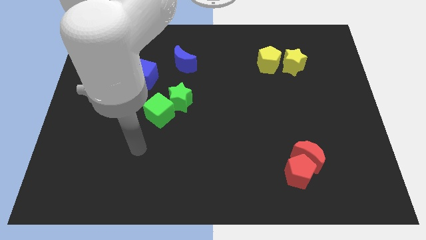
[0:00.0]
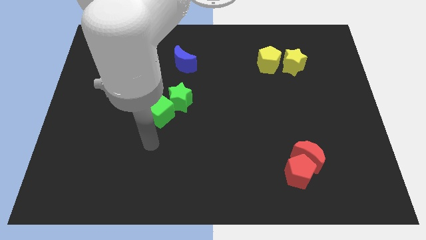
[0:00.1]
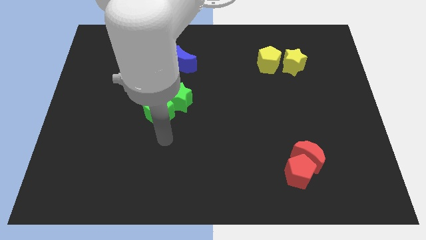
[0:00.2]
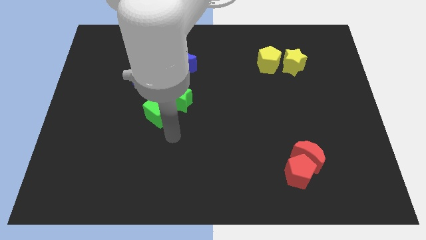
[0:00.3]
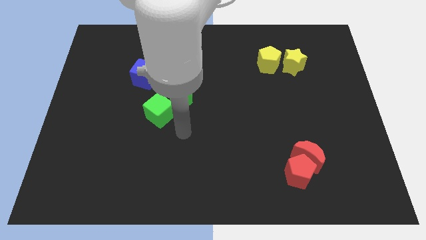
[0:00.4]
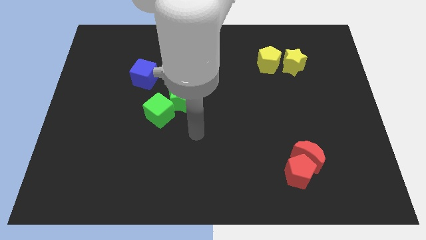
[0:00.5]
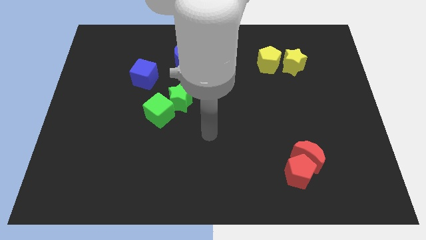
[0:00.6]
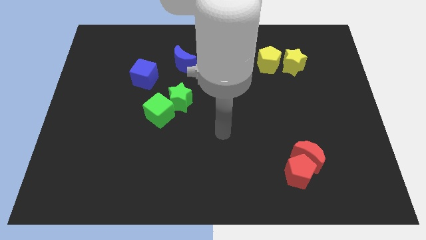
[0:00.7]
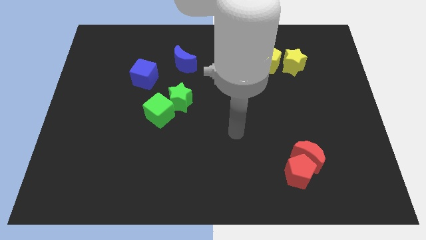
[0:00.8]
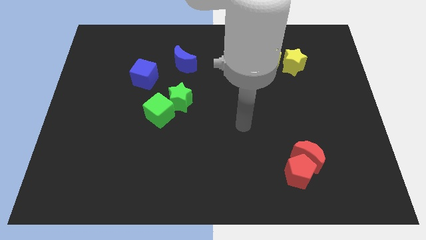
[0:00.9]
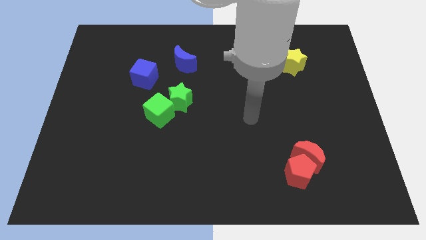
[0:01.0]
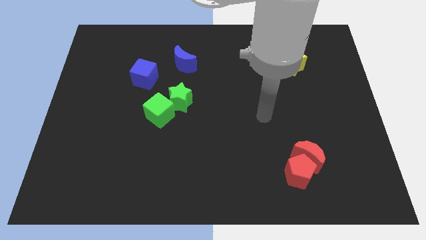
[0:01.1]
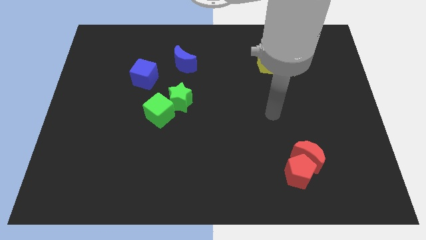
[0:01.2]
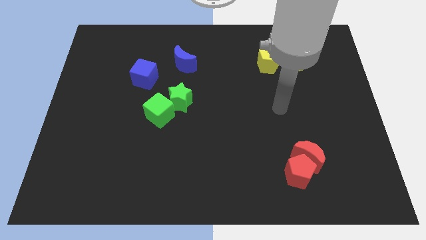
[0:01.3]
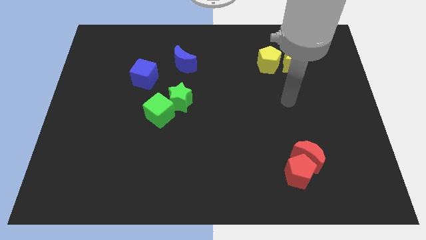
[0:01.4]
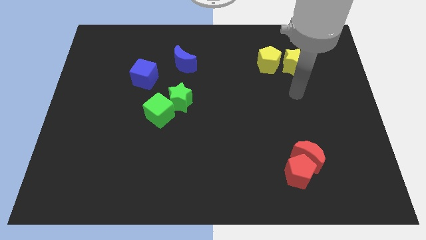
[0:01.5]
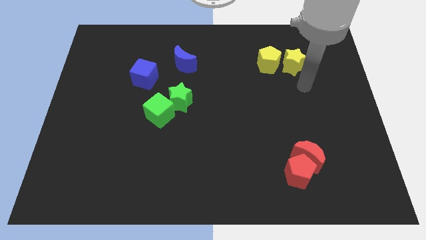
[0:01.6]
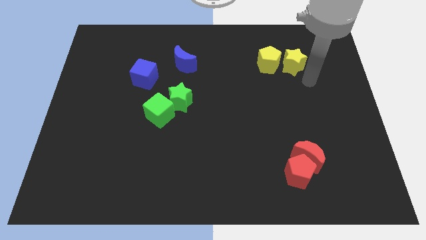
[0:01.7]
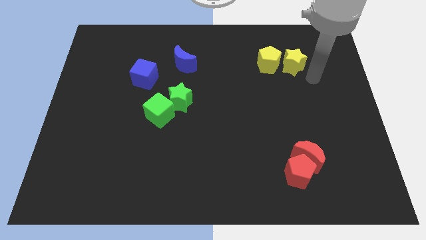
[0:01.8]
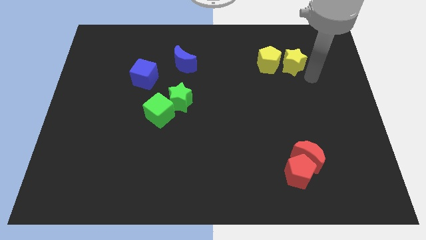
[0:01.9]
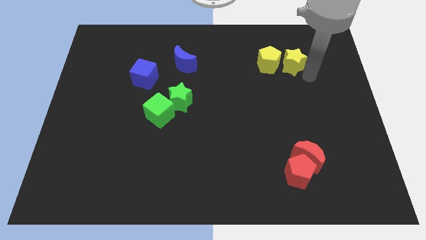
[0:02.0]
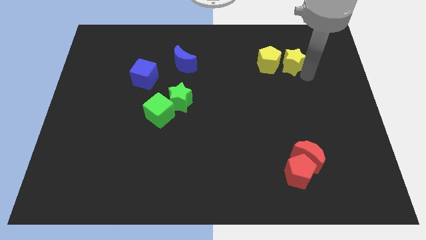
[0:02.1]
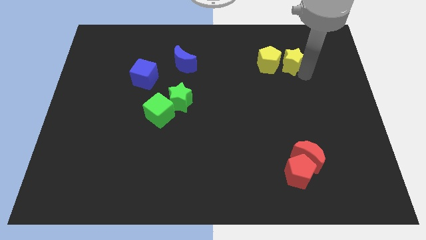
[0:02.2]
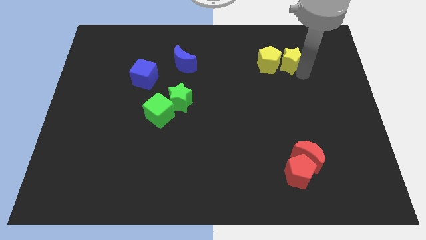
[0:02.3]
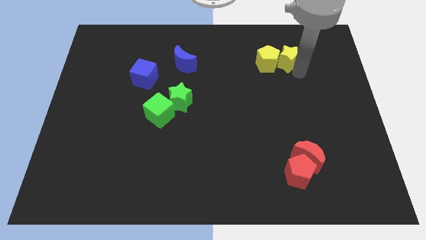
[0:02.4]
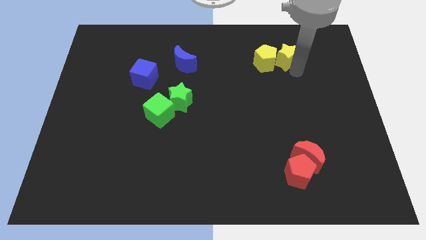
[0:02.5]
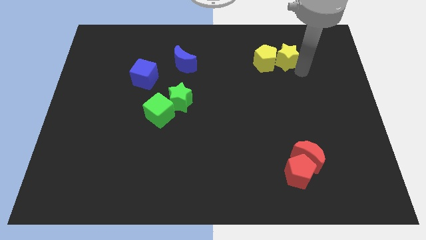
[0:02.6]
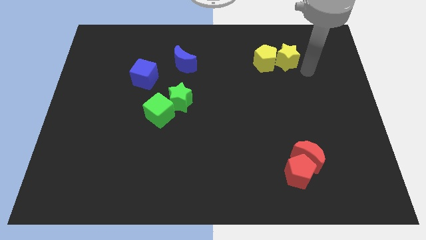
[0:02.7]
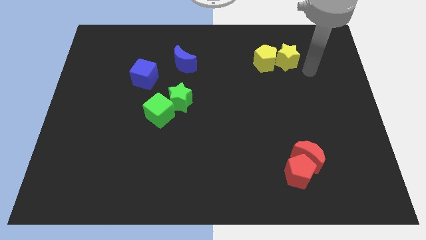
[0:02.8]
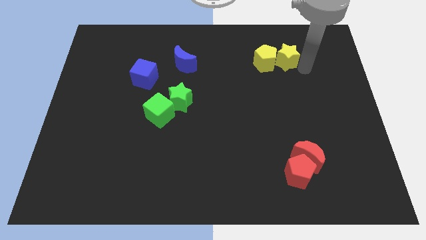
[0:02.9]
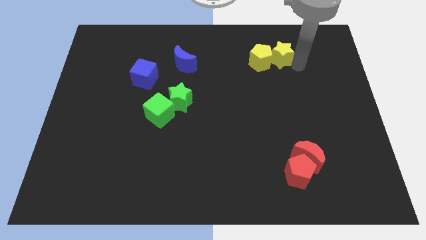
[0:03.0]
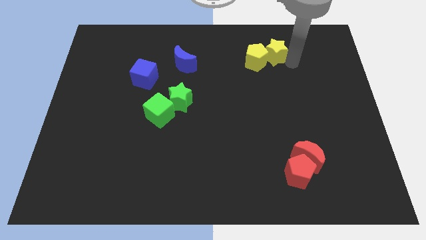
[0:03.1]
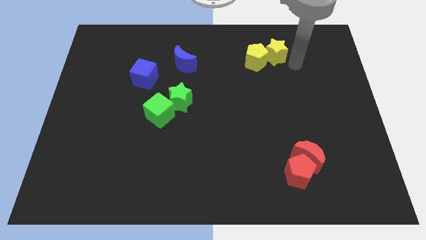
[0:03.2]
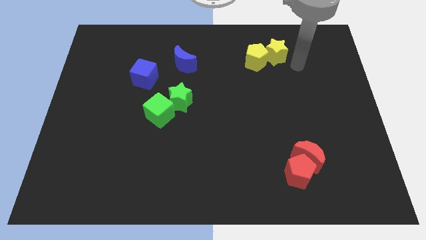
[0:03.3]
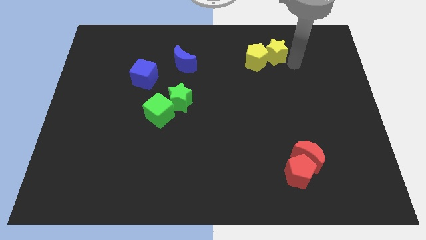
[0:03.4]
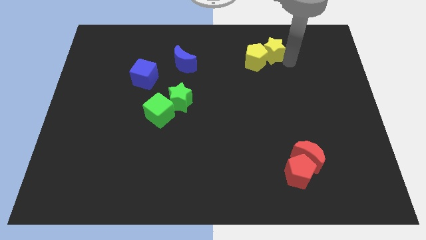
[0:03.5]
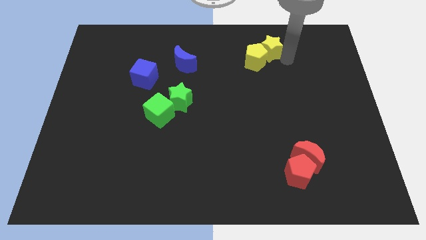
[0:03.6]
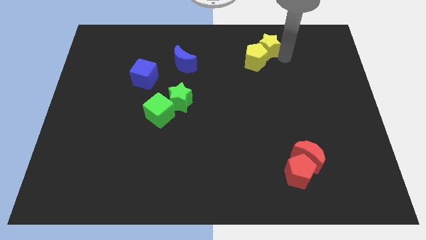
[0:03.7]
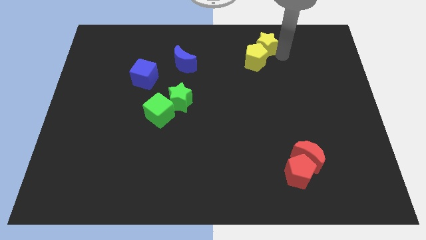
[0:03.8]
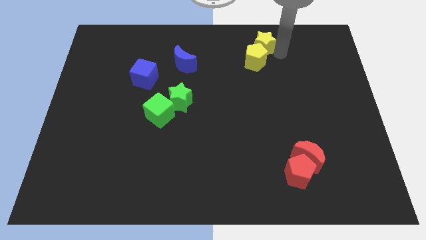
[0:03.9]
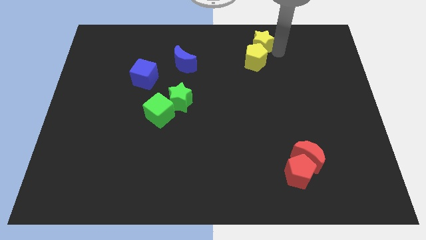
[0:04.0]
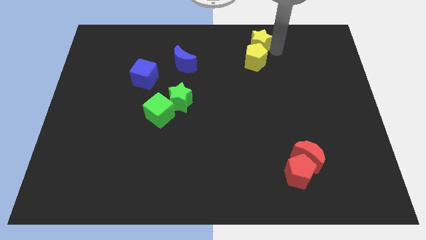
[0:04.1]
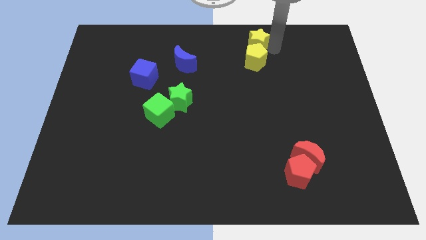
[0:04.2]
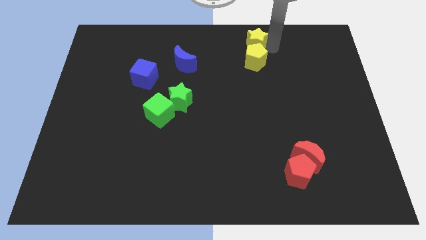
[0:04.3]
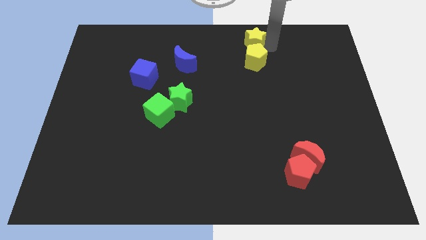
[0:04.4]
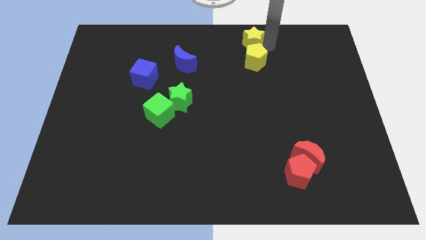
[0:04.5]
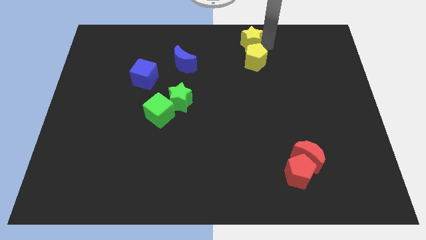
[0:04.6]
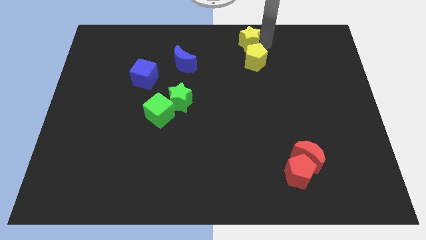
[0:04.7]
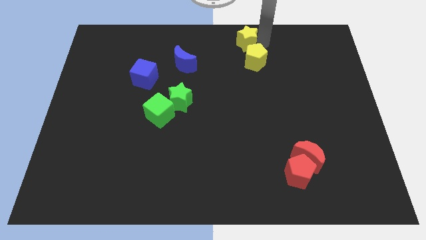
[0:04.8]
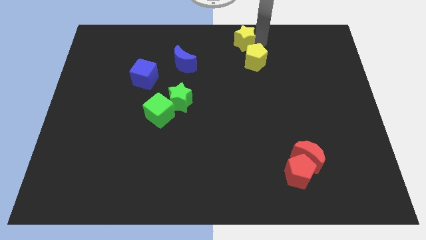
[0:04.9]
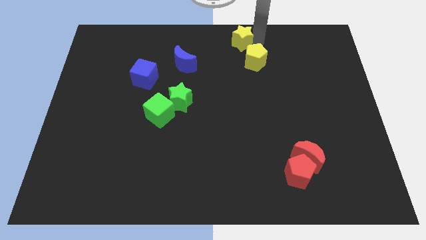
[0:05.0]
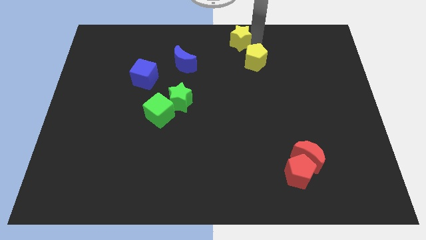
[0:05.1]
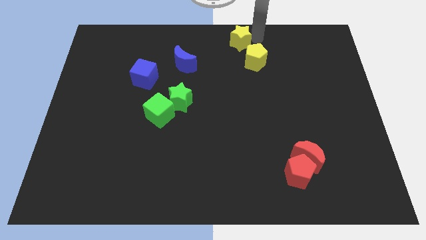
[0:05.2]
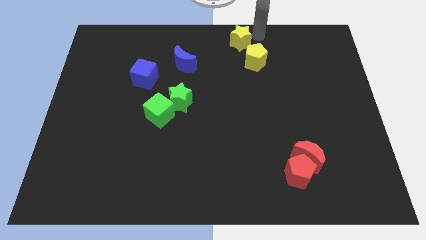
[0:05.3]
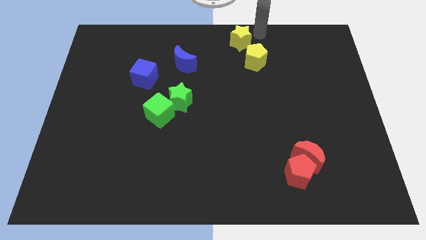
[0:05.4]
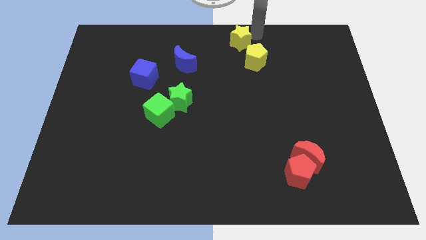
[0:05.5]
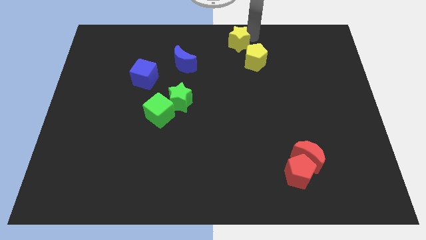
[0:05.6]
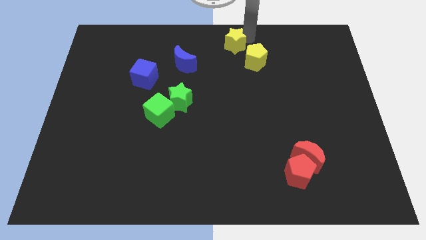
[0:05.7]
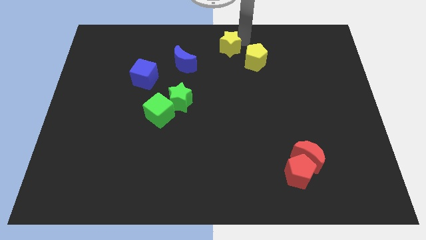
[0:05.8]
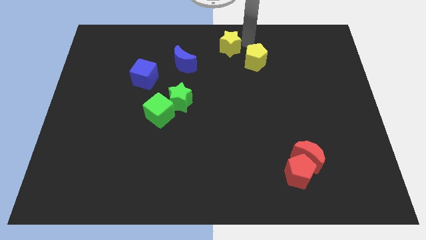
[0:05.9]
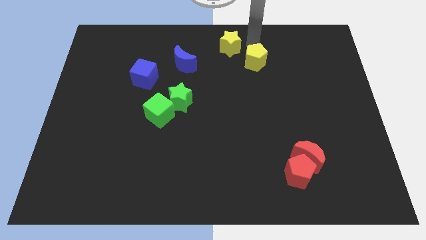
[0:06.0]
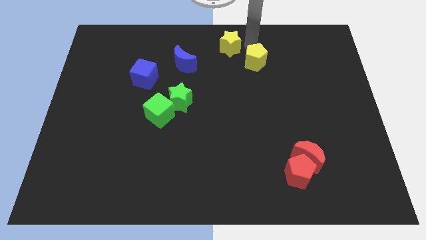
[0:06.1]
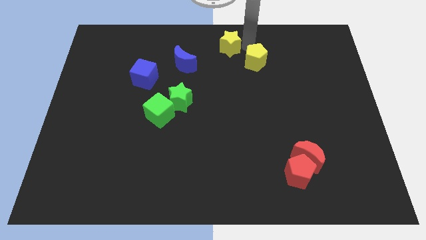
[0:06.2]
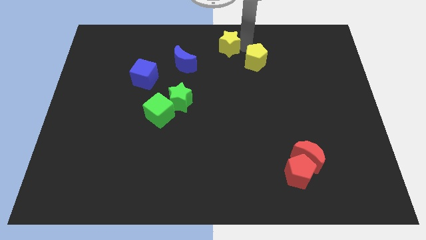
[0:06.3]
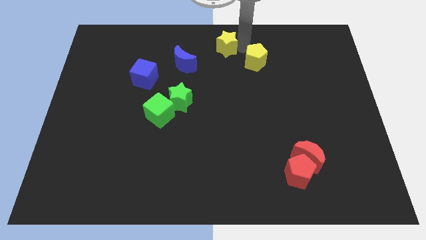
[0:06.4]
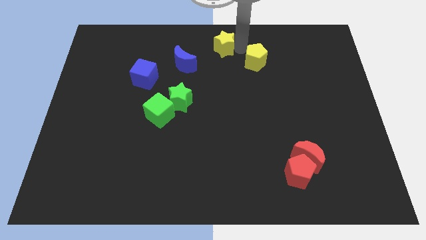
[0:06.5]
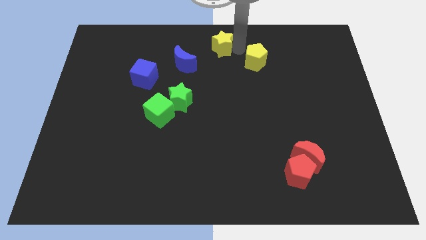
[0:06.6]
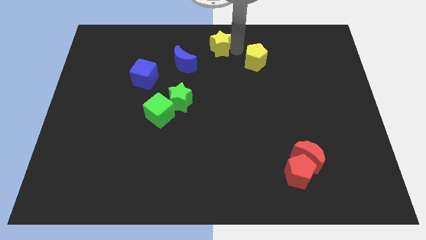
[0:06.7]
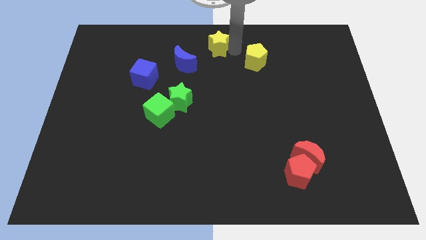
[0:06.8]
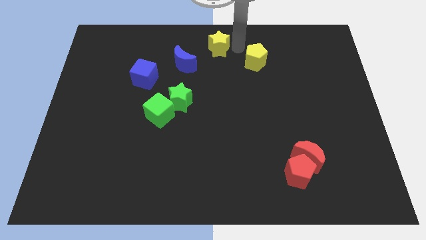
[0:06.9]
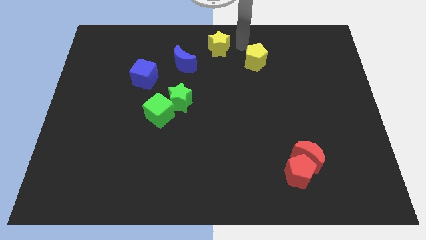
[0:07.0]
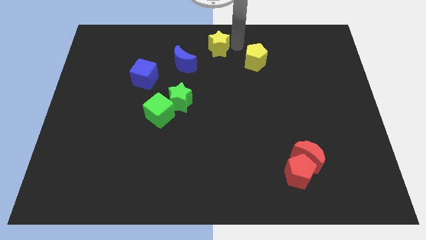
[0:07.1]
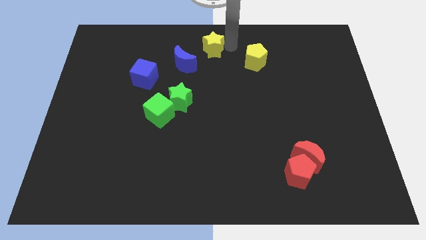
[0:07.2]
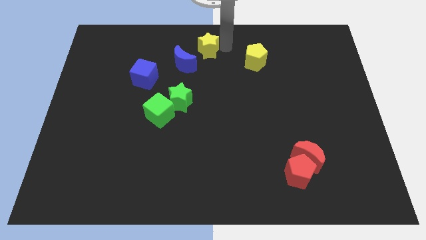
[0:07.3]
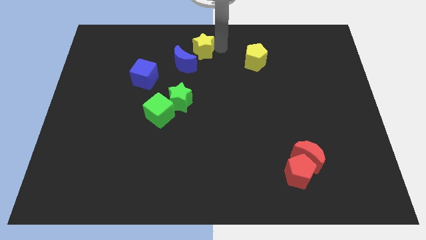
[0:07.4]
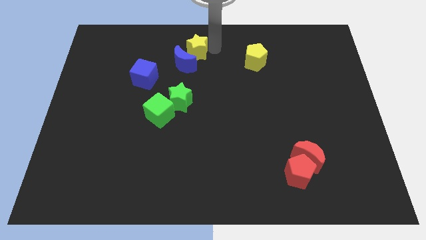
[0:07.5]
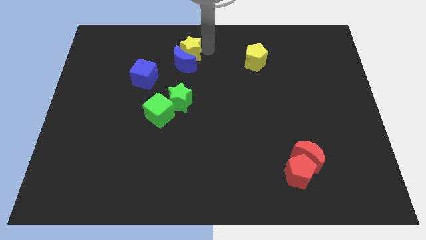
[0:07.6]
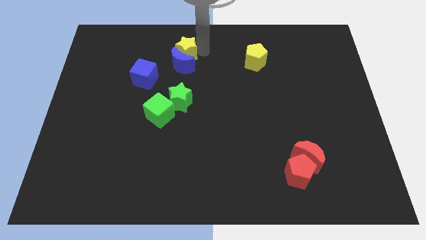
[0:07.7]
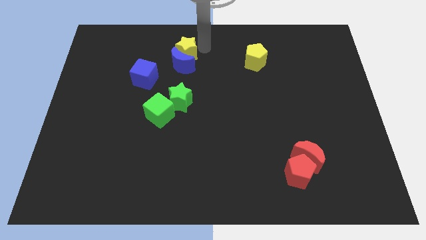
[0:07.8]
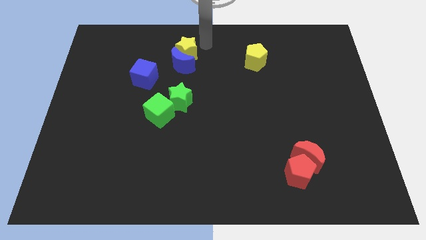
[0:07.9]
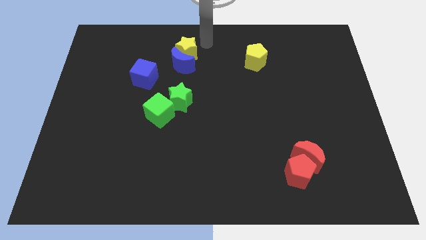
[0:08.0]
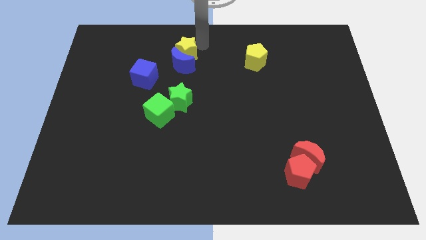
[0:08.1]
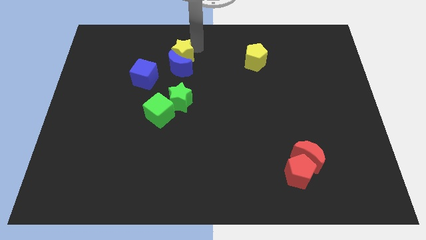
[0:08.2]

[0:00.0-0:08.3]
put the yellow star to the top right of the blue cube
